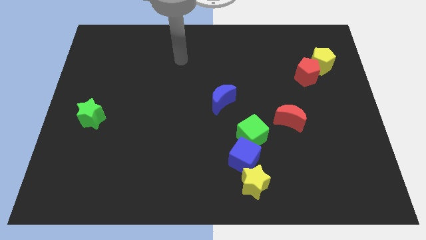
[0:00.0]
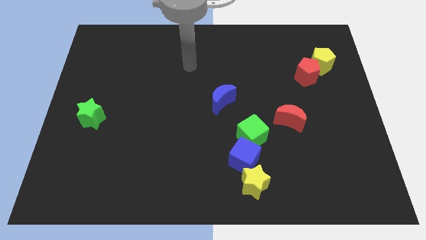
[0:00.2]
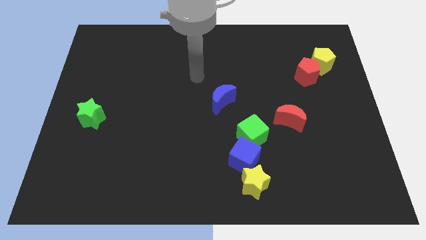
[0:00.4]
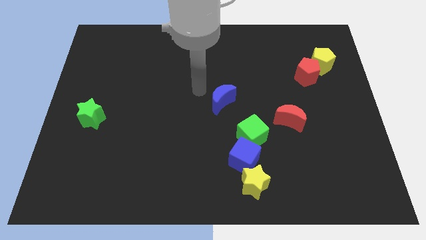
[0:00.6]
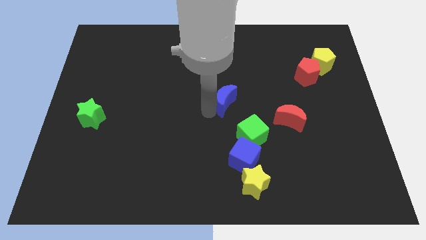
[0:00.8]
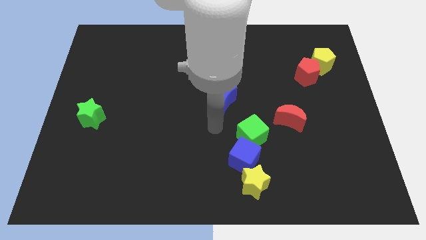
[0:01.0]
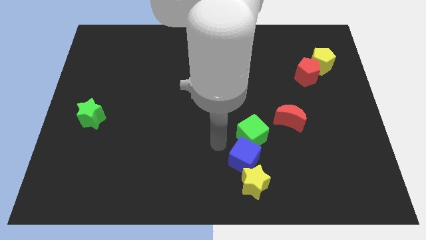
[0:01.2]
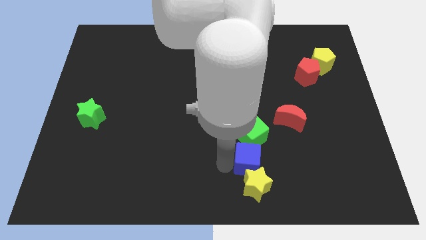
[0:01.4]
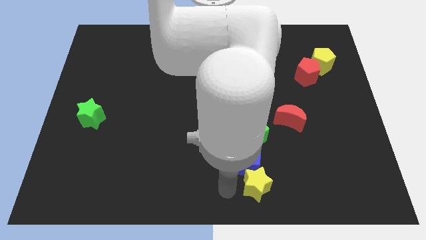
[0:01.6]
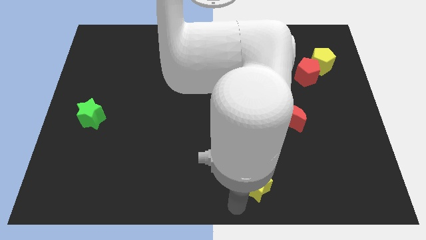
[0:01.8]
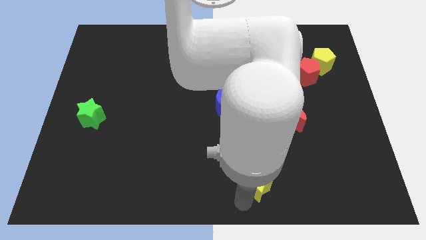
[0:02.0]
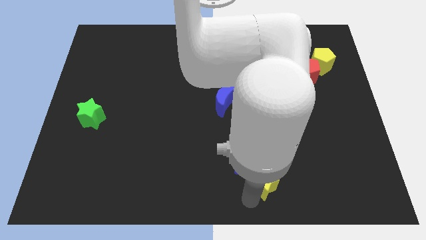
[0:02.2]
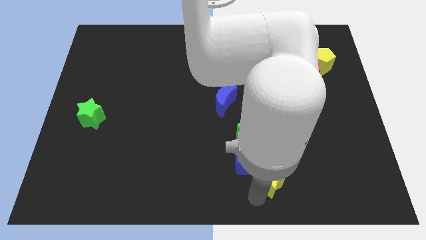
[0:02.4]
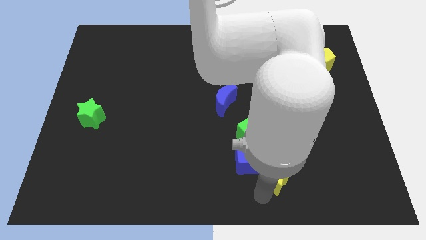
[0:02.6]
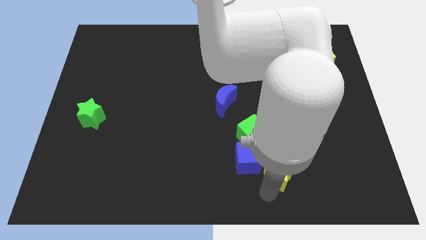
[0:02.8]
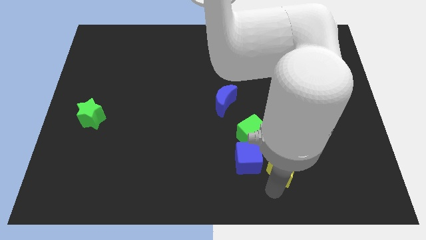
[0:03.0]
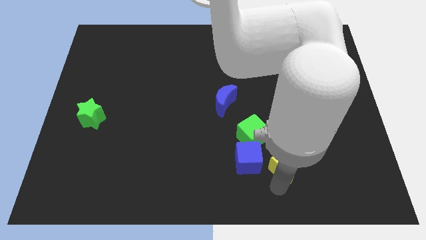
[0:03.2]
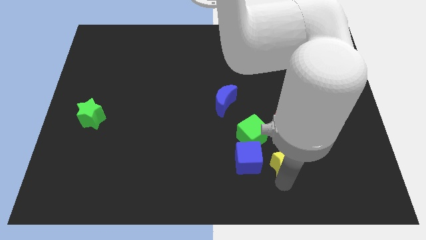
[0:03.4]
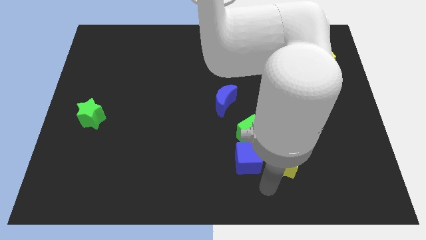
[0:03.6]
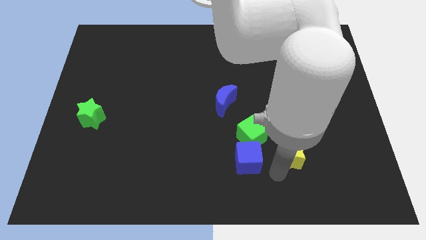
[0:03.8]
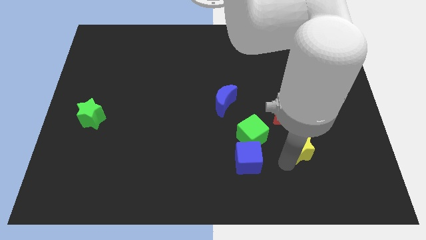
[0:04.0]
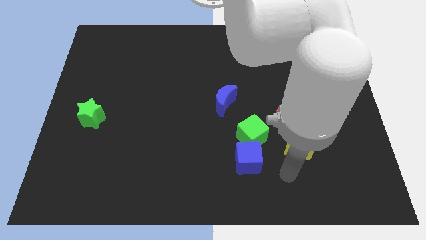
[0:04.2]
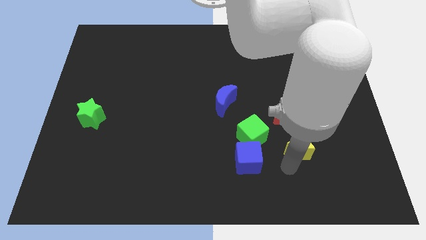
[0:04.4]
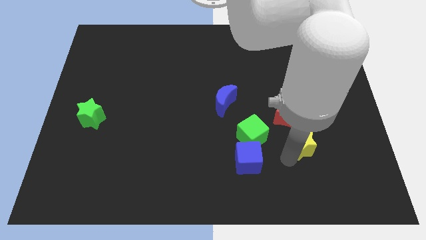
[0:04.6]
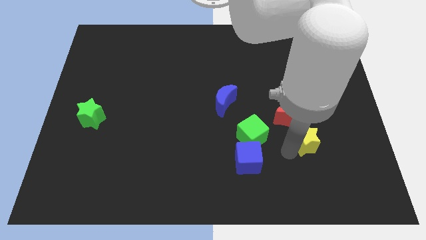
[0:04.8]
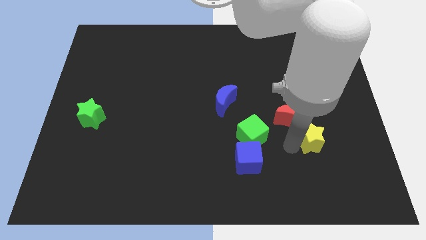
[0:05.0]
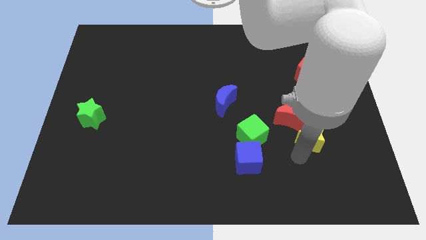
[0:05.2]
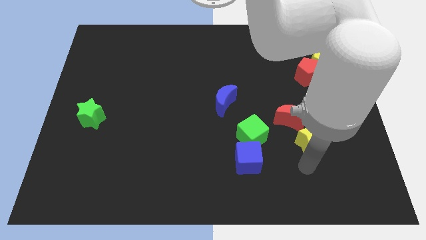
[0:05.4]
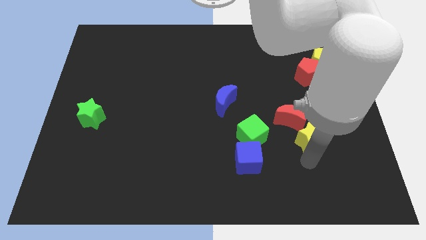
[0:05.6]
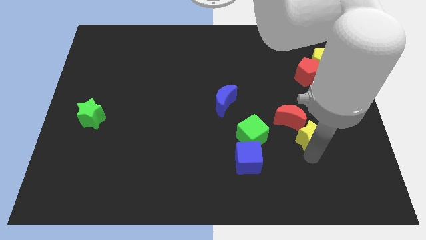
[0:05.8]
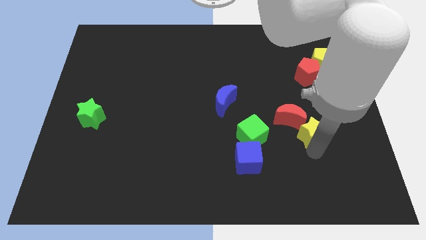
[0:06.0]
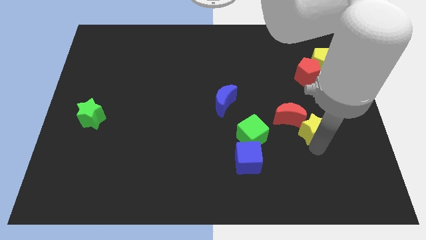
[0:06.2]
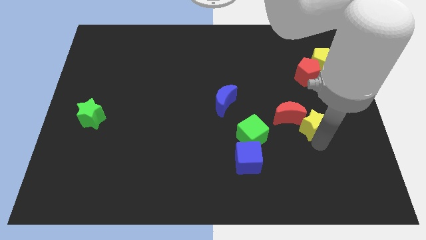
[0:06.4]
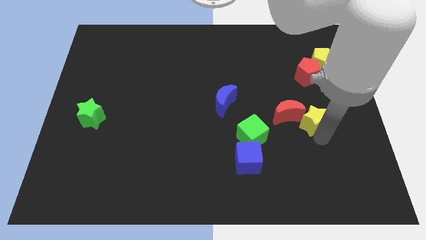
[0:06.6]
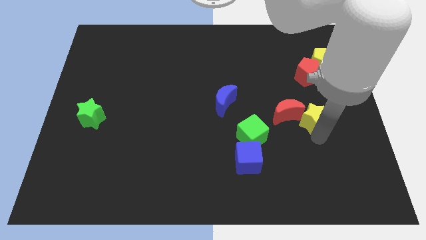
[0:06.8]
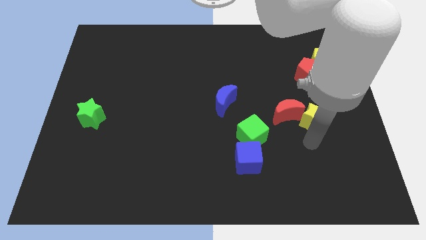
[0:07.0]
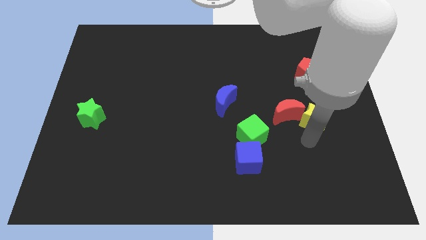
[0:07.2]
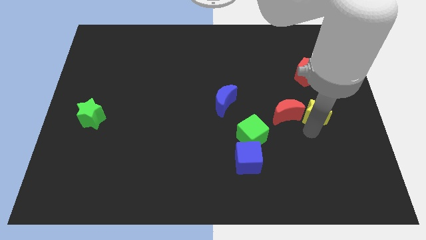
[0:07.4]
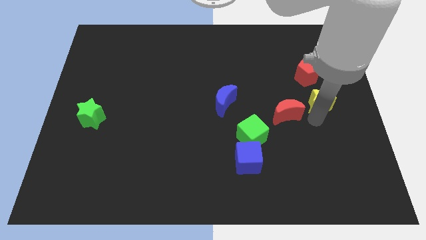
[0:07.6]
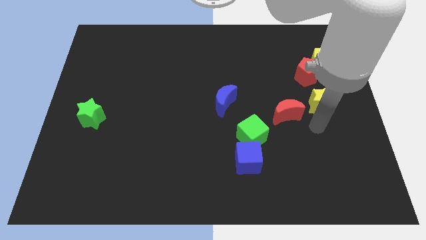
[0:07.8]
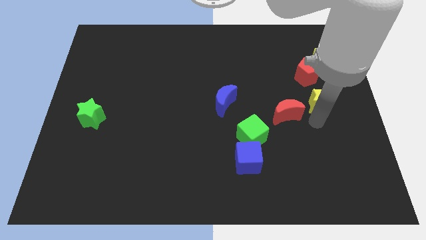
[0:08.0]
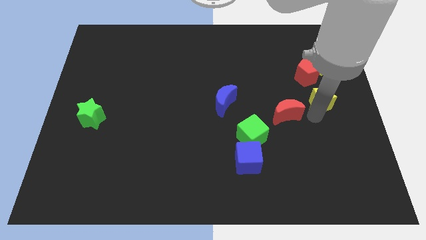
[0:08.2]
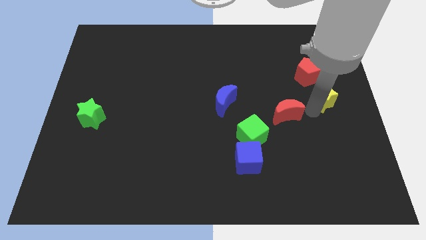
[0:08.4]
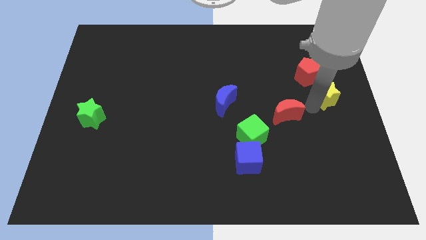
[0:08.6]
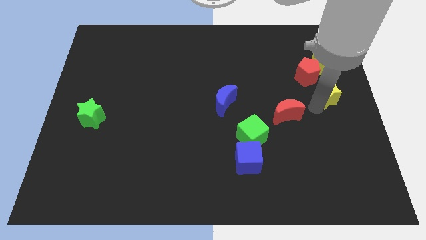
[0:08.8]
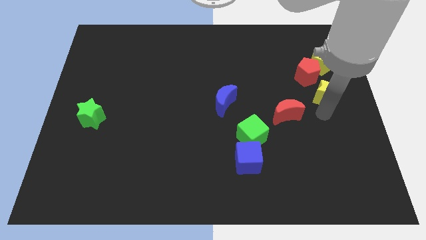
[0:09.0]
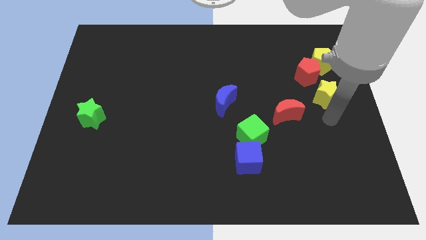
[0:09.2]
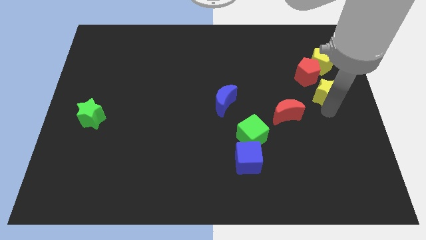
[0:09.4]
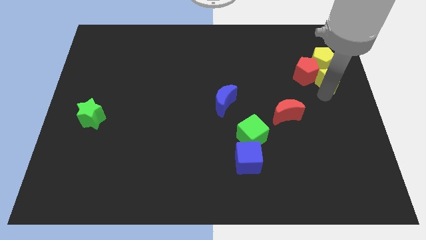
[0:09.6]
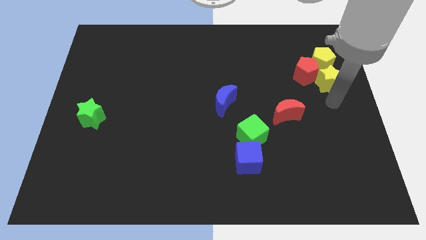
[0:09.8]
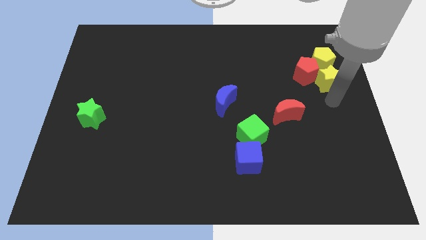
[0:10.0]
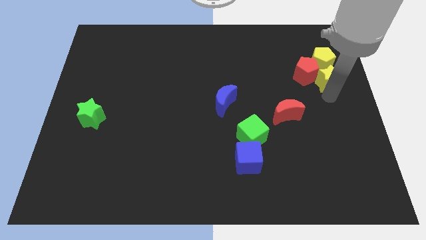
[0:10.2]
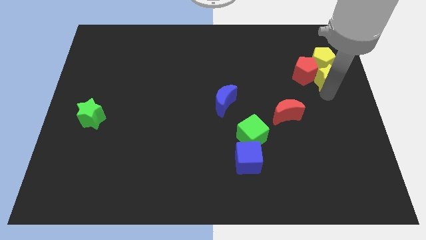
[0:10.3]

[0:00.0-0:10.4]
slide the yellow star close to the yellow pentagon

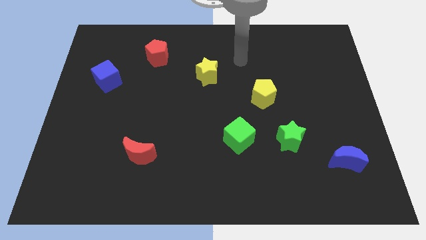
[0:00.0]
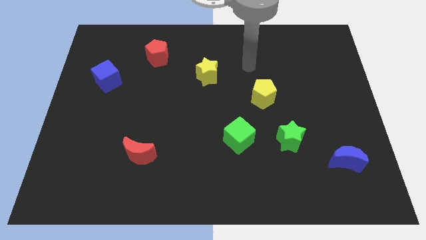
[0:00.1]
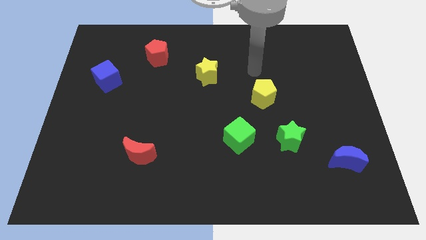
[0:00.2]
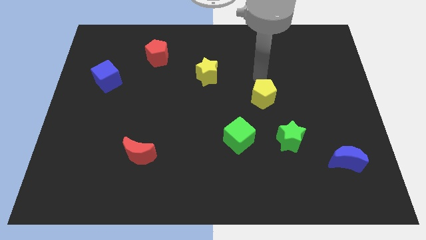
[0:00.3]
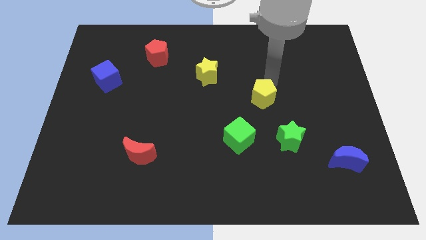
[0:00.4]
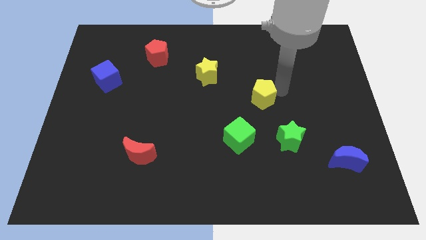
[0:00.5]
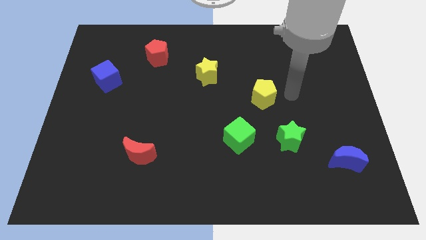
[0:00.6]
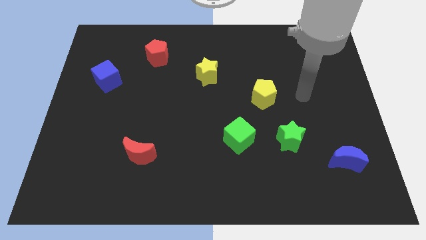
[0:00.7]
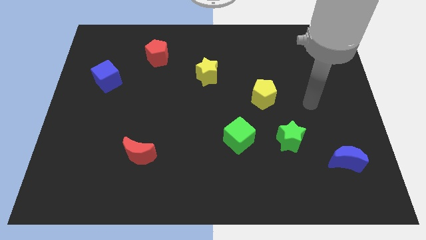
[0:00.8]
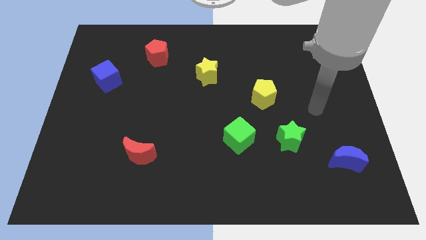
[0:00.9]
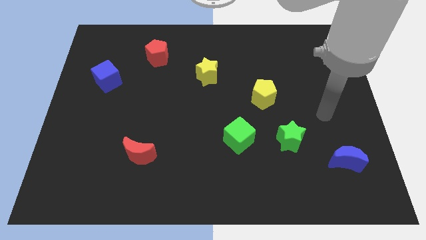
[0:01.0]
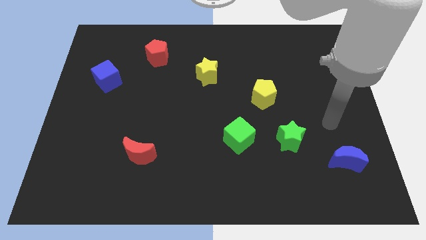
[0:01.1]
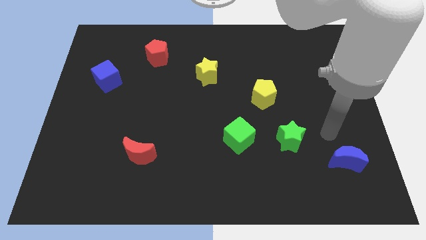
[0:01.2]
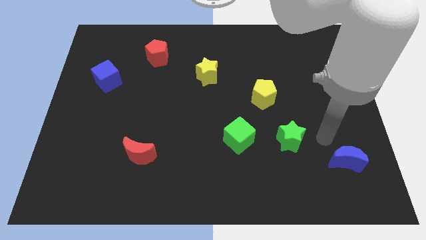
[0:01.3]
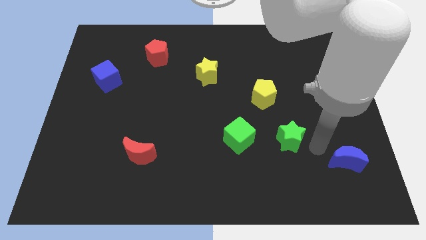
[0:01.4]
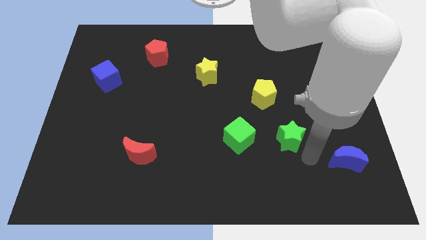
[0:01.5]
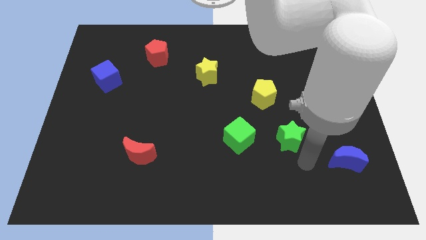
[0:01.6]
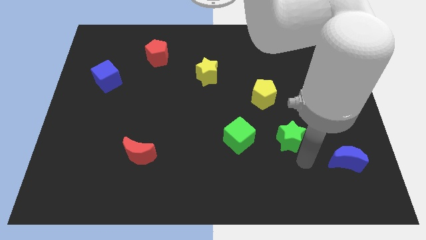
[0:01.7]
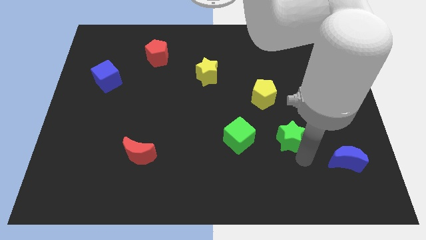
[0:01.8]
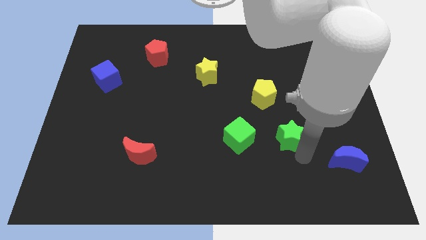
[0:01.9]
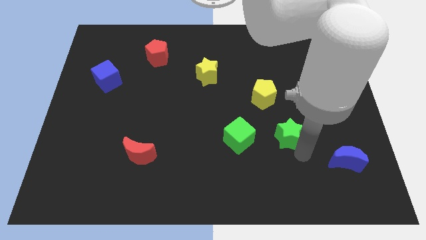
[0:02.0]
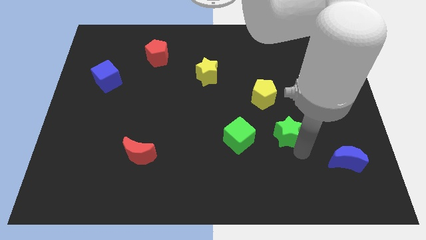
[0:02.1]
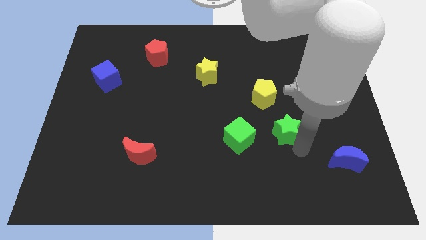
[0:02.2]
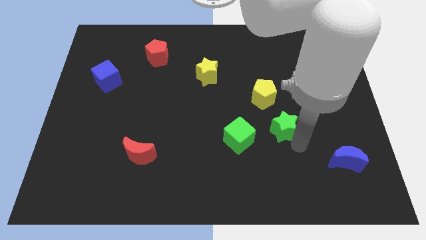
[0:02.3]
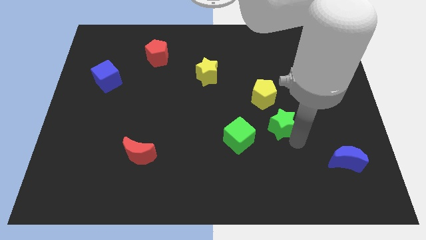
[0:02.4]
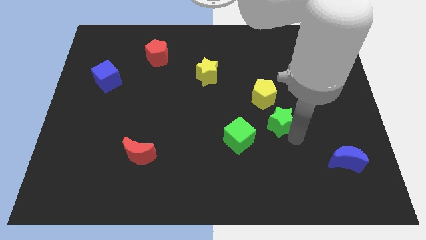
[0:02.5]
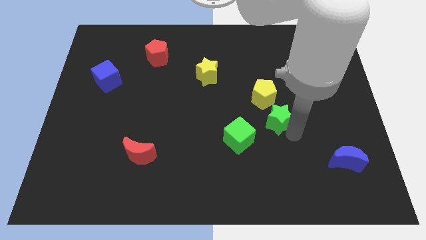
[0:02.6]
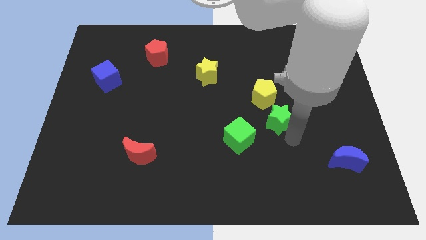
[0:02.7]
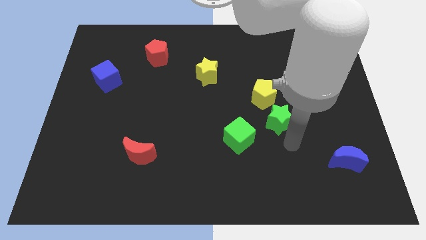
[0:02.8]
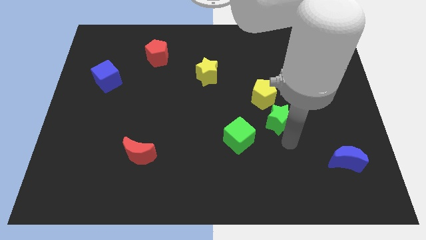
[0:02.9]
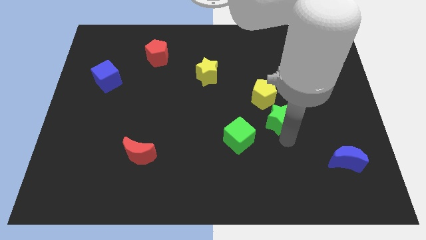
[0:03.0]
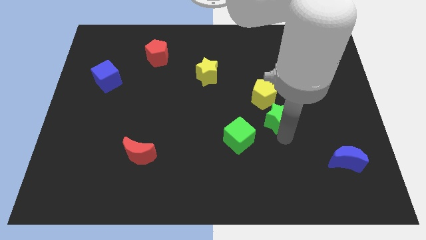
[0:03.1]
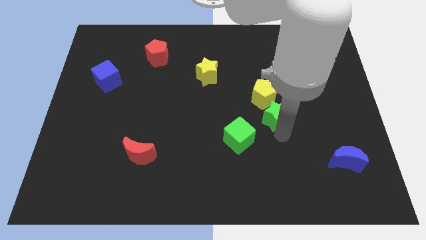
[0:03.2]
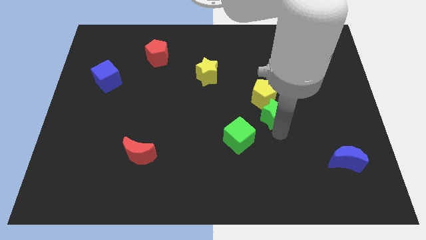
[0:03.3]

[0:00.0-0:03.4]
push the green star to the yellow pentagon
